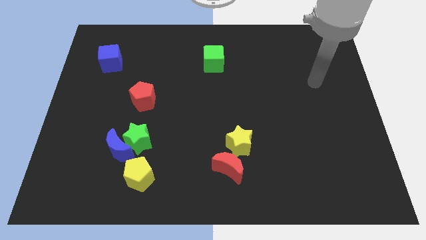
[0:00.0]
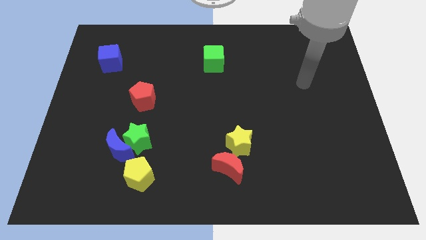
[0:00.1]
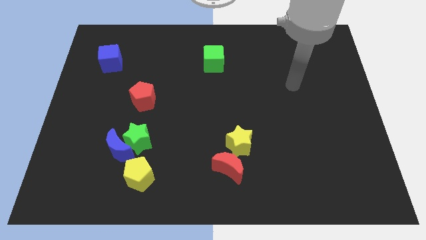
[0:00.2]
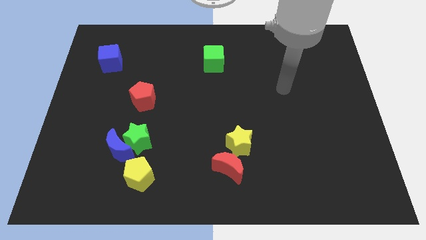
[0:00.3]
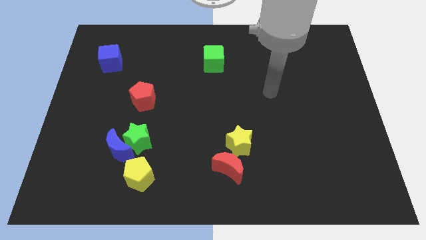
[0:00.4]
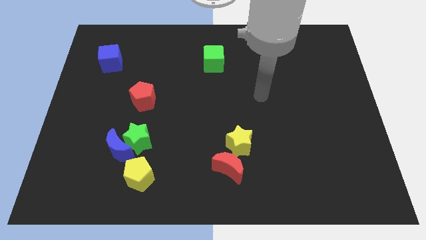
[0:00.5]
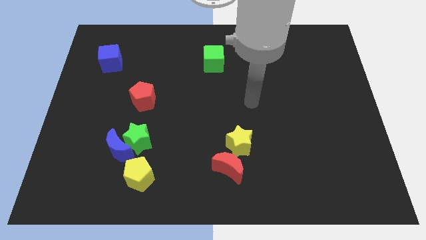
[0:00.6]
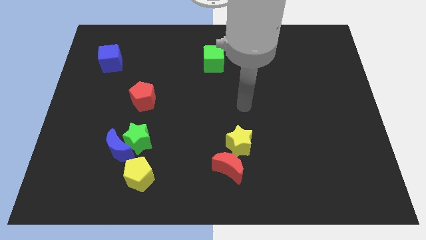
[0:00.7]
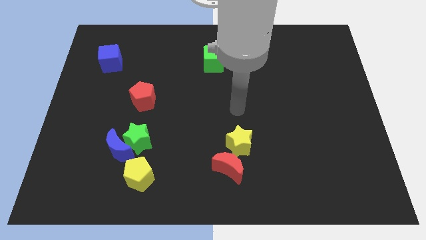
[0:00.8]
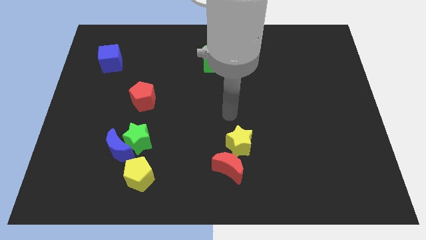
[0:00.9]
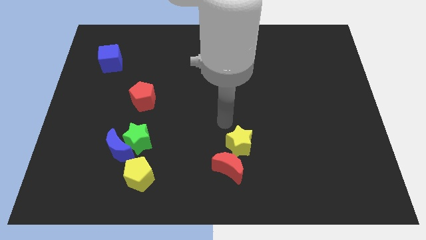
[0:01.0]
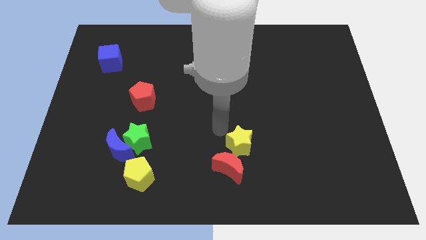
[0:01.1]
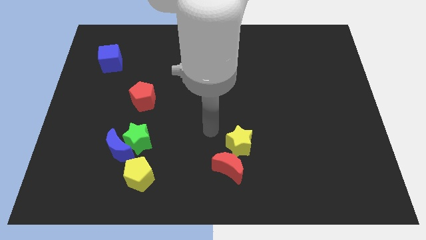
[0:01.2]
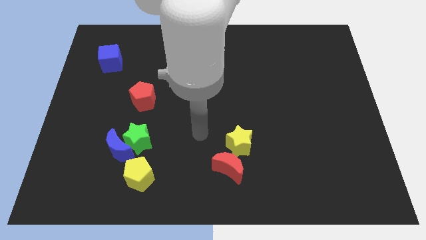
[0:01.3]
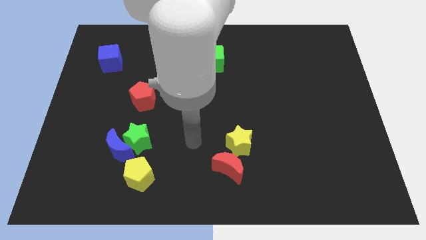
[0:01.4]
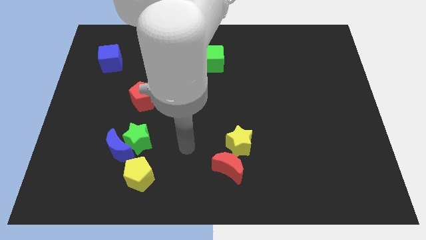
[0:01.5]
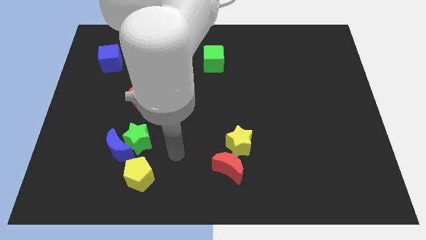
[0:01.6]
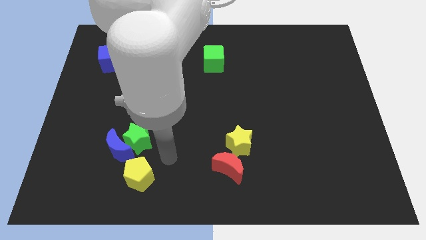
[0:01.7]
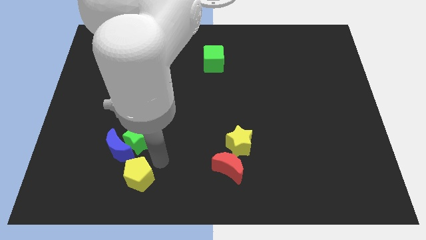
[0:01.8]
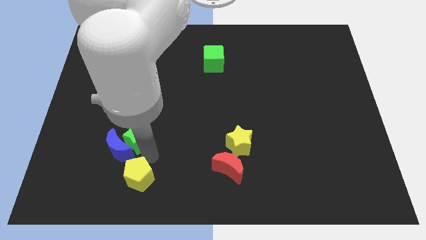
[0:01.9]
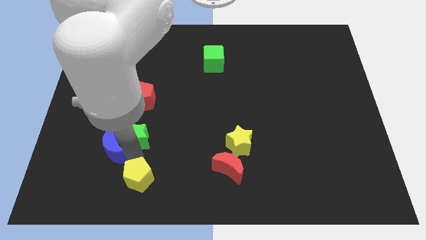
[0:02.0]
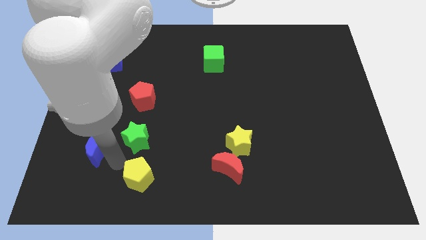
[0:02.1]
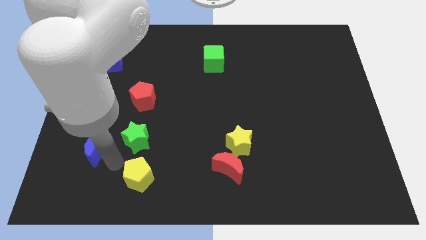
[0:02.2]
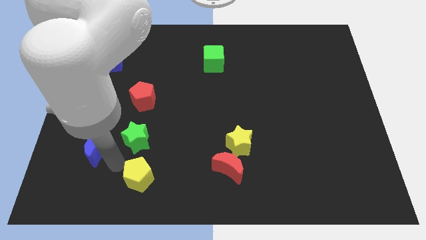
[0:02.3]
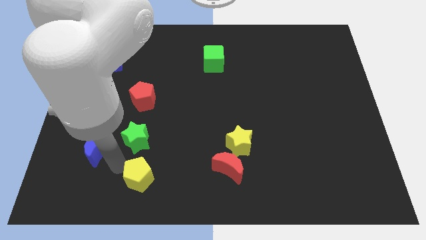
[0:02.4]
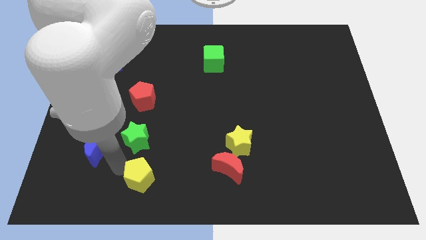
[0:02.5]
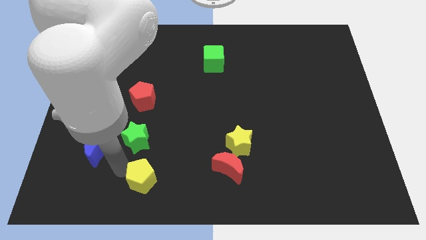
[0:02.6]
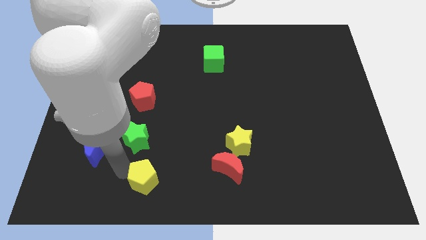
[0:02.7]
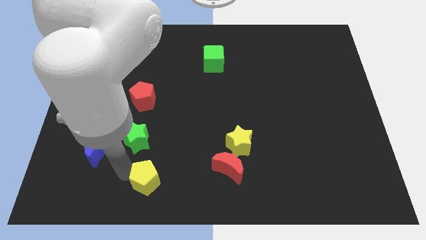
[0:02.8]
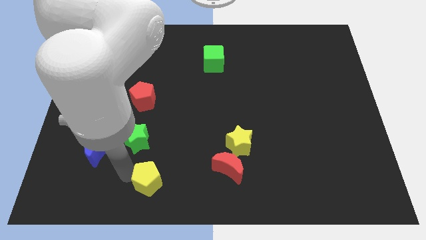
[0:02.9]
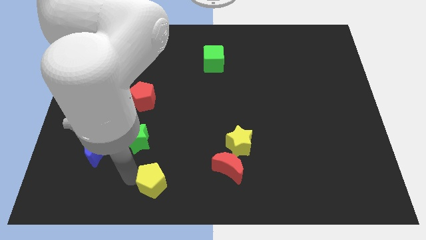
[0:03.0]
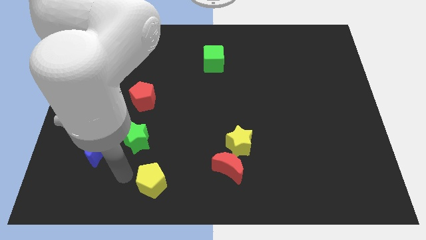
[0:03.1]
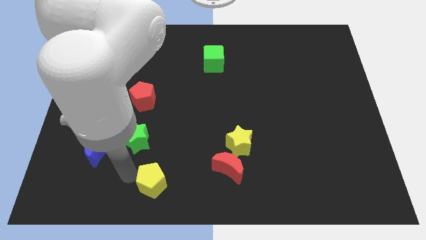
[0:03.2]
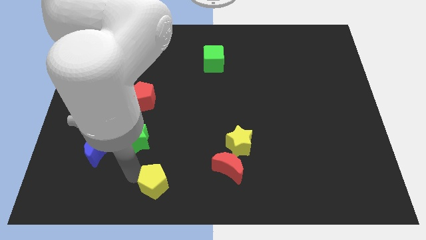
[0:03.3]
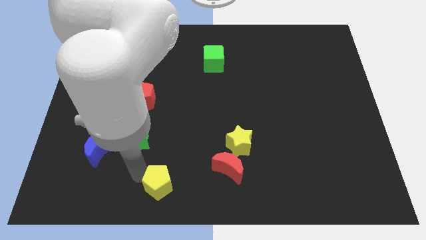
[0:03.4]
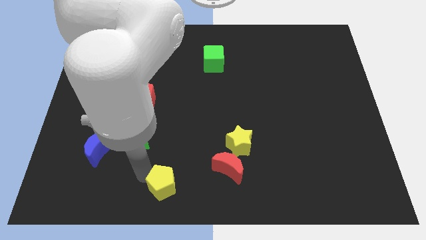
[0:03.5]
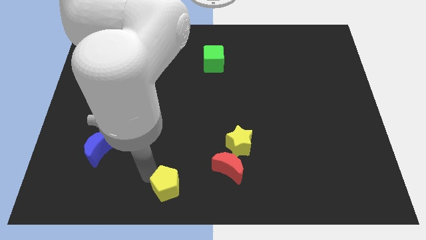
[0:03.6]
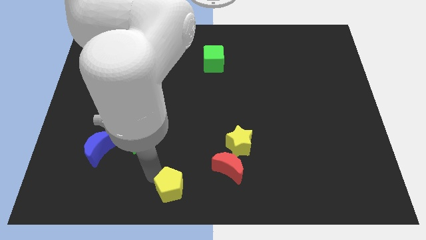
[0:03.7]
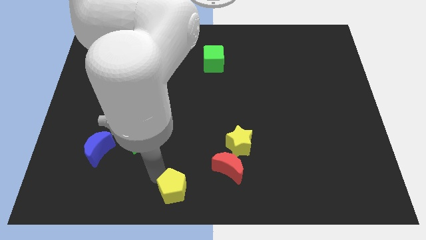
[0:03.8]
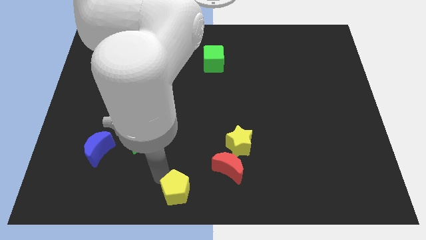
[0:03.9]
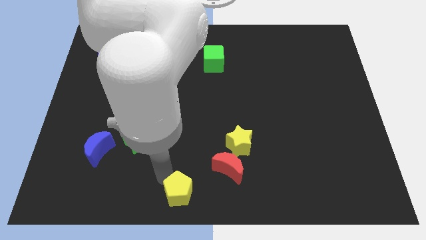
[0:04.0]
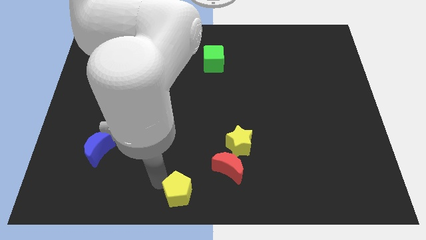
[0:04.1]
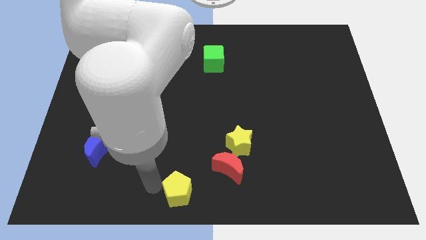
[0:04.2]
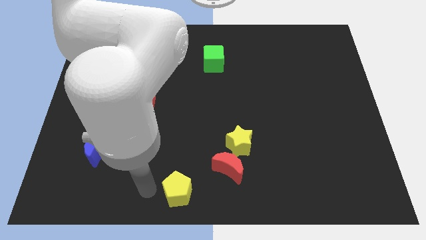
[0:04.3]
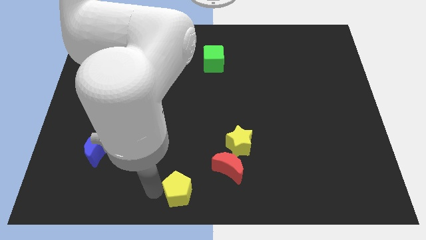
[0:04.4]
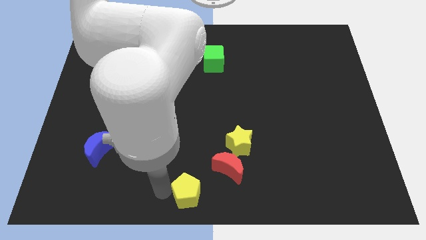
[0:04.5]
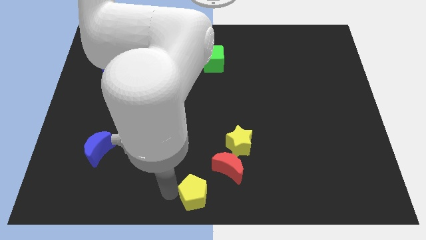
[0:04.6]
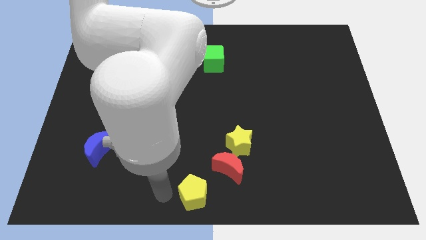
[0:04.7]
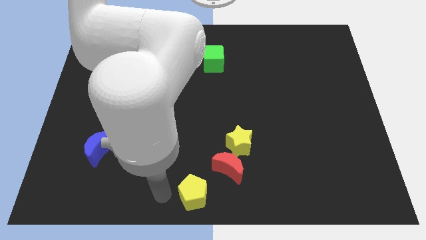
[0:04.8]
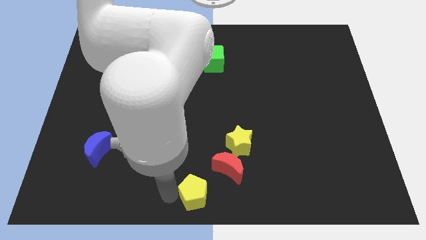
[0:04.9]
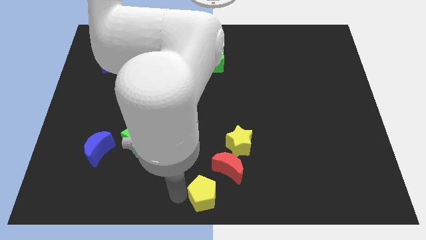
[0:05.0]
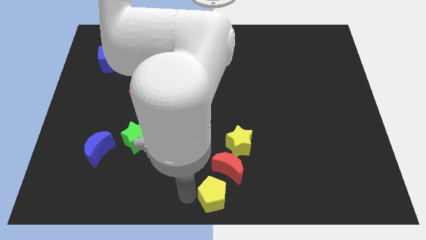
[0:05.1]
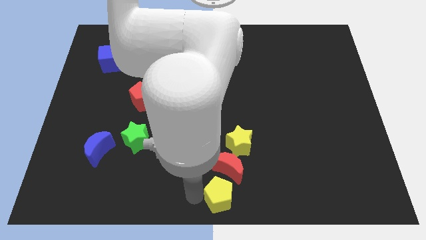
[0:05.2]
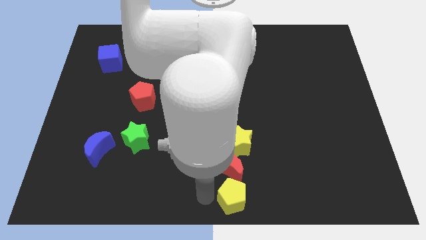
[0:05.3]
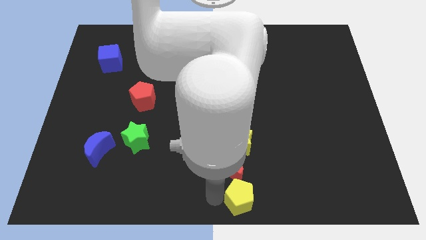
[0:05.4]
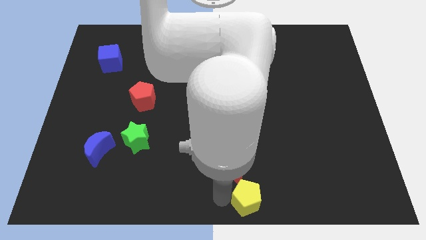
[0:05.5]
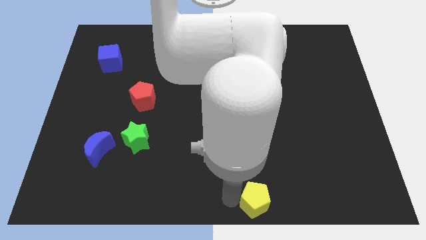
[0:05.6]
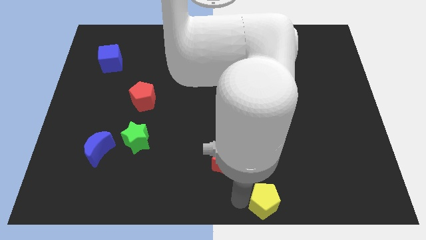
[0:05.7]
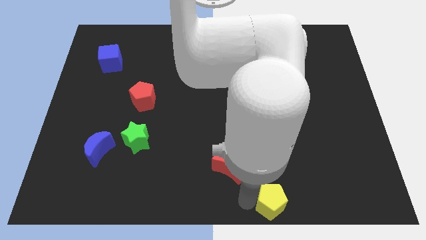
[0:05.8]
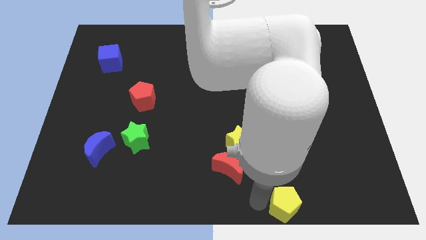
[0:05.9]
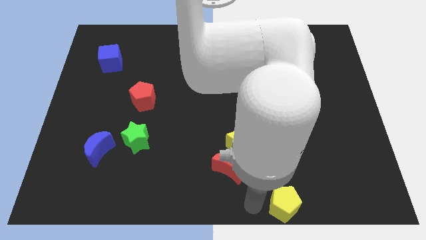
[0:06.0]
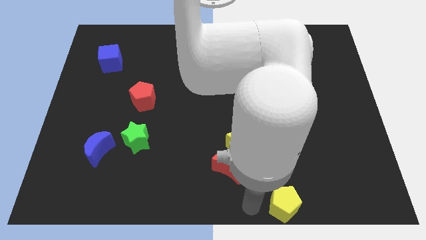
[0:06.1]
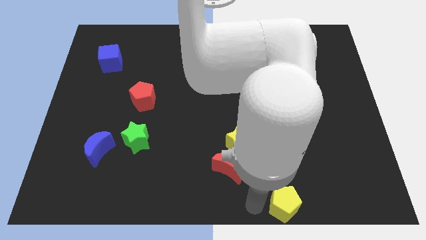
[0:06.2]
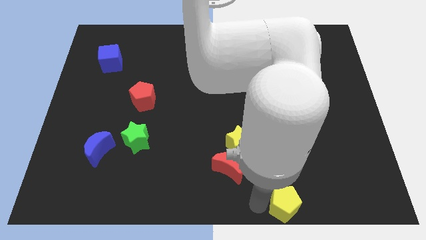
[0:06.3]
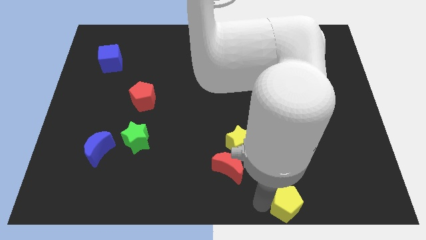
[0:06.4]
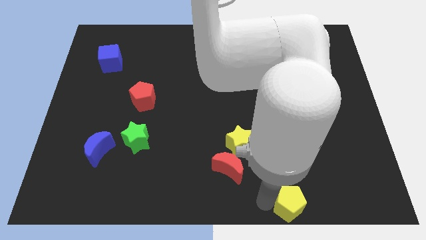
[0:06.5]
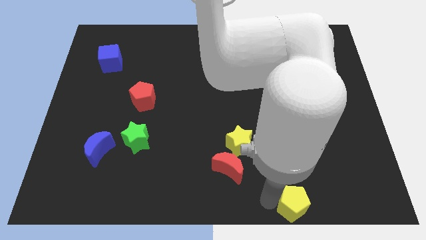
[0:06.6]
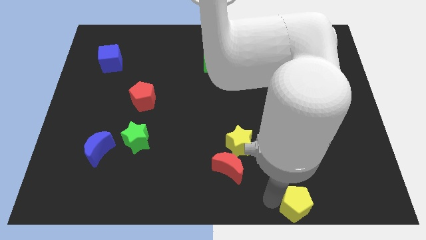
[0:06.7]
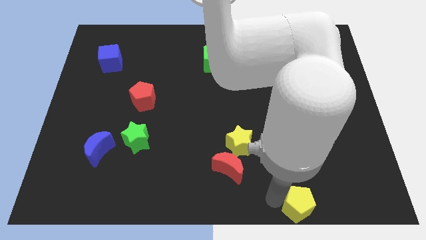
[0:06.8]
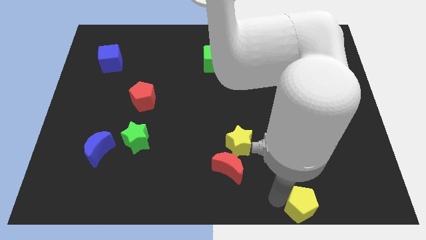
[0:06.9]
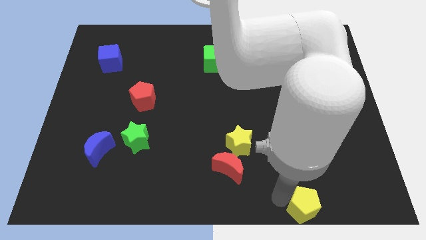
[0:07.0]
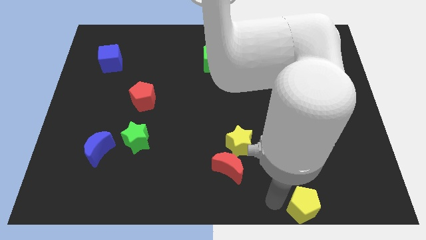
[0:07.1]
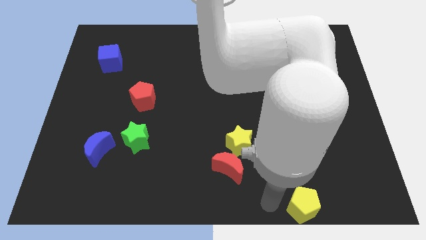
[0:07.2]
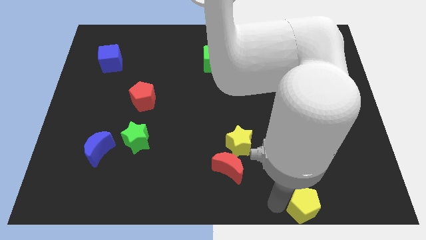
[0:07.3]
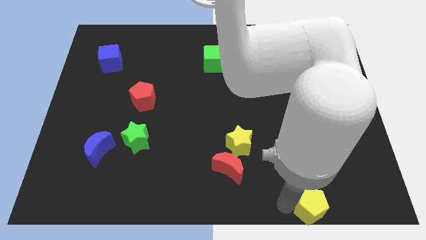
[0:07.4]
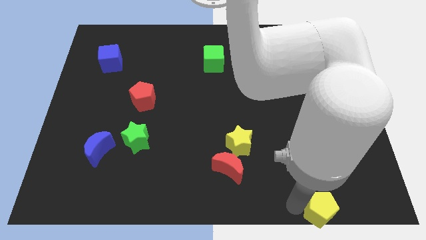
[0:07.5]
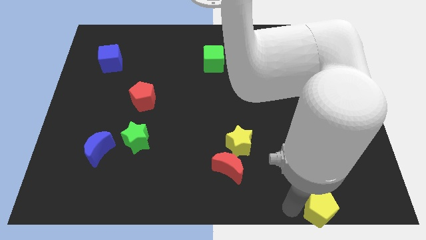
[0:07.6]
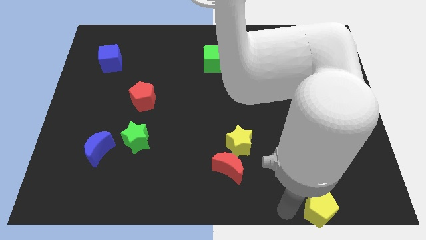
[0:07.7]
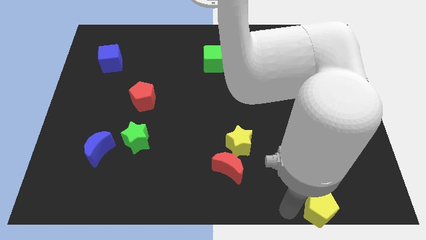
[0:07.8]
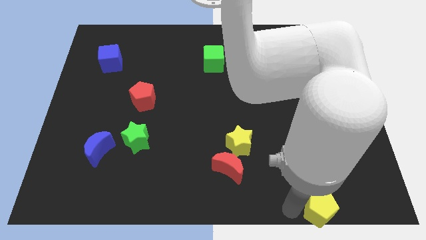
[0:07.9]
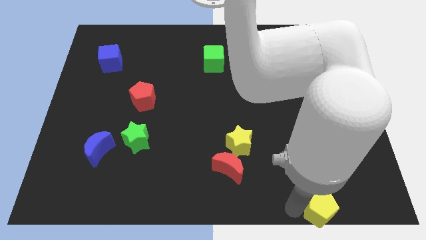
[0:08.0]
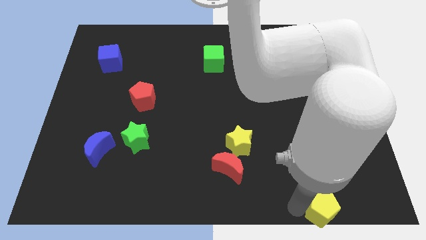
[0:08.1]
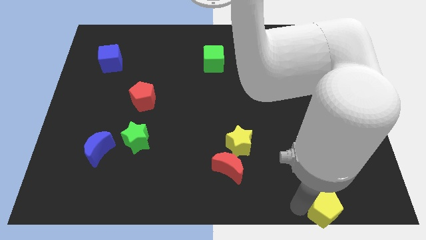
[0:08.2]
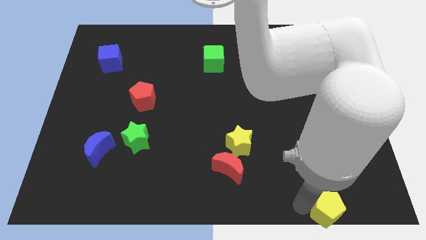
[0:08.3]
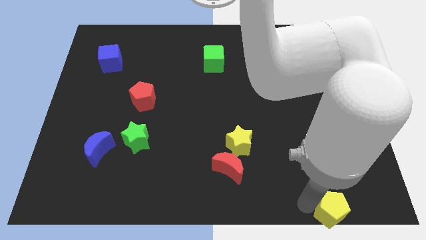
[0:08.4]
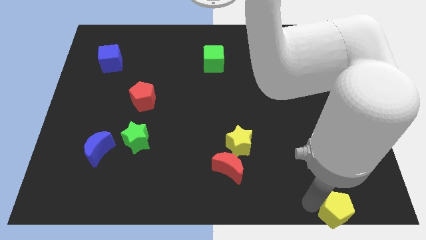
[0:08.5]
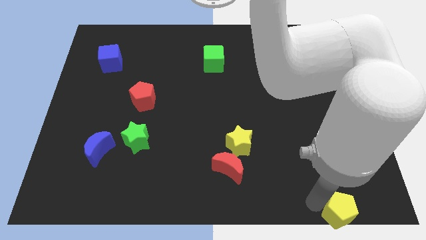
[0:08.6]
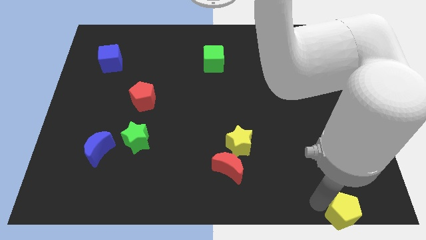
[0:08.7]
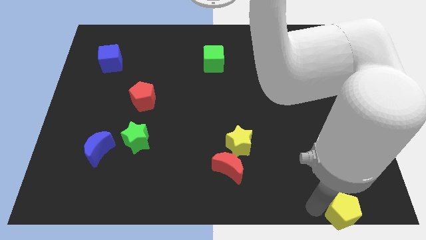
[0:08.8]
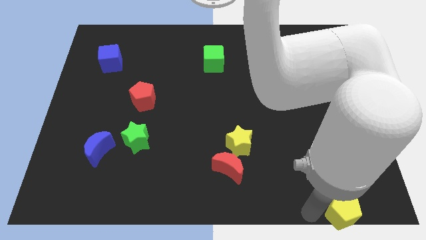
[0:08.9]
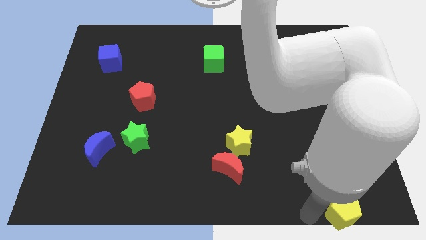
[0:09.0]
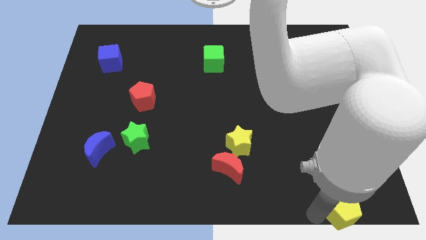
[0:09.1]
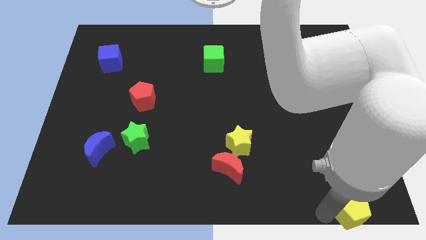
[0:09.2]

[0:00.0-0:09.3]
move the yellow pentagon to the bottom right of the board
